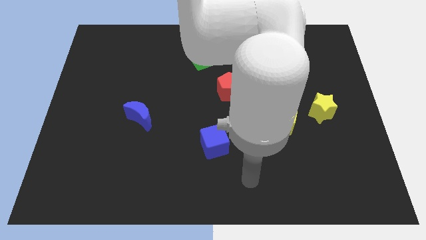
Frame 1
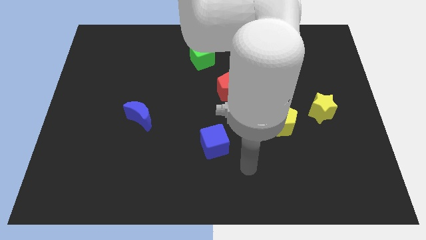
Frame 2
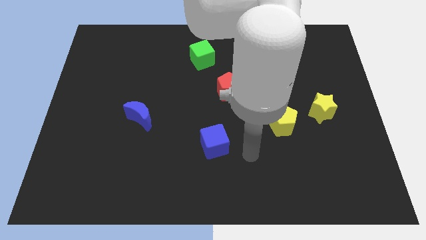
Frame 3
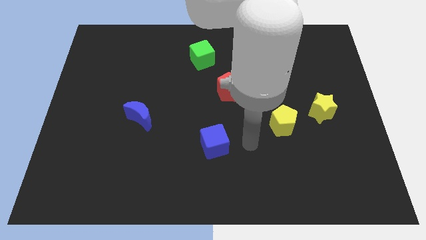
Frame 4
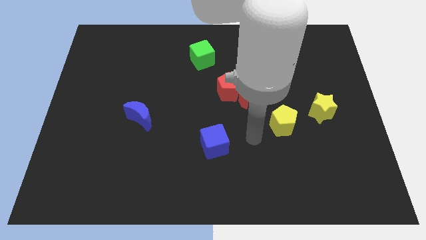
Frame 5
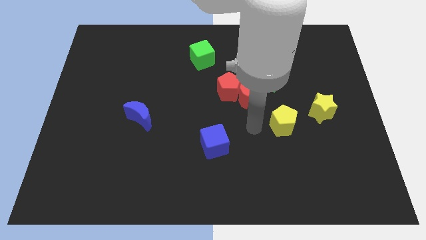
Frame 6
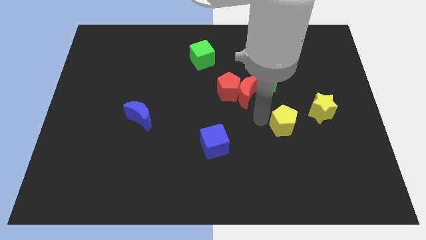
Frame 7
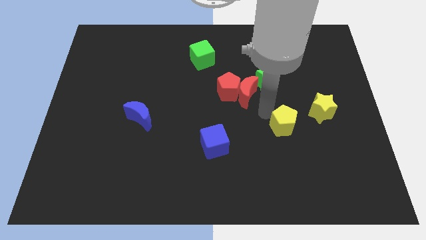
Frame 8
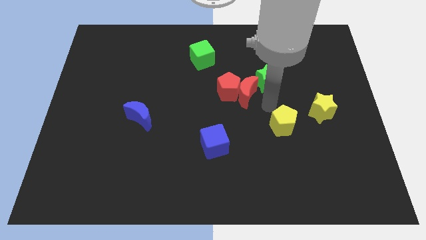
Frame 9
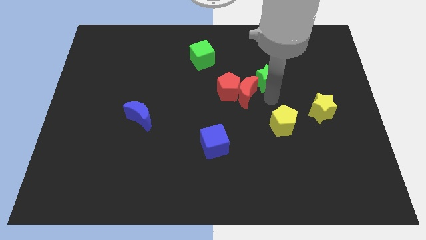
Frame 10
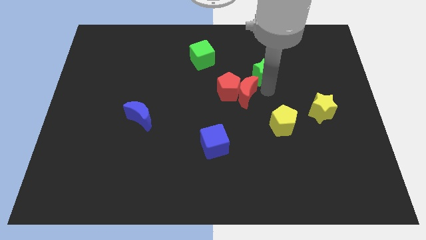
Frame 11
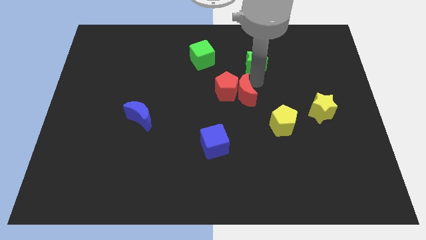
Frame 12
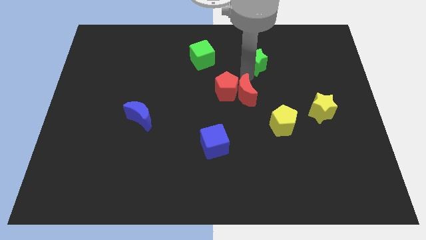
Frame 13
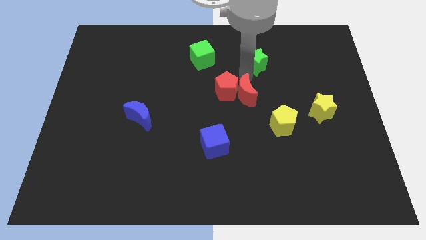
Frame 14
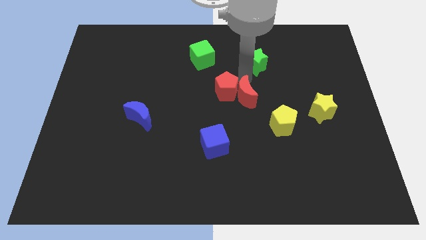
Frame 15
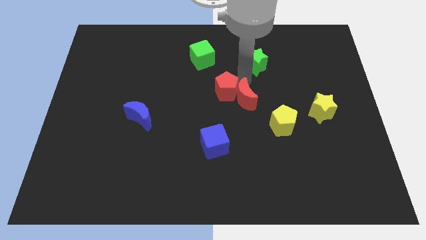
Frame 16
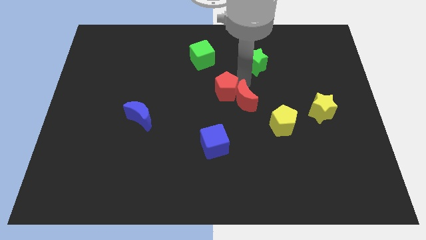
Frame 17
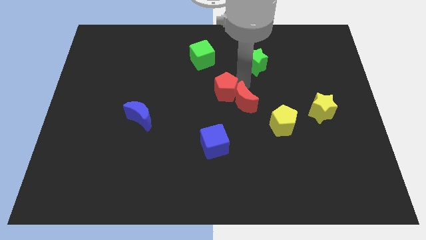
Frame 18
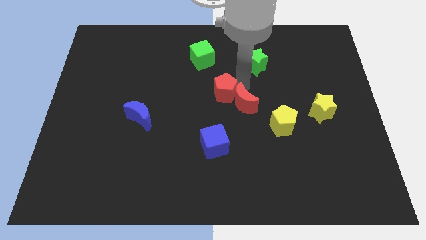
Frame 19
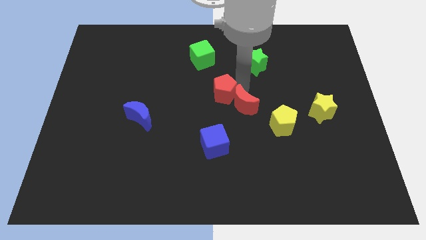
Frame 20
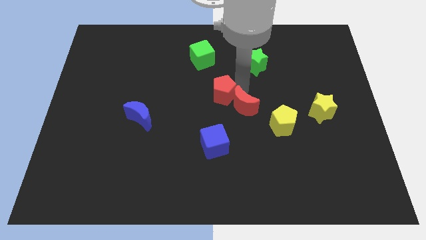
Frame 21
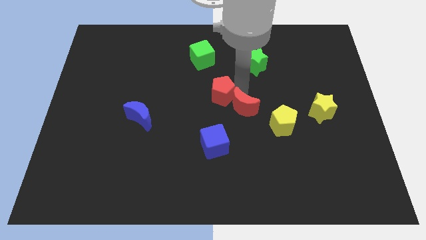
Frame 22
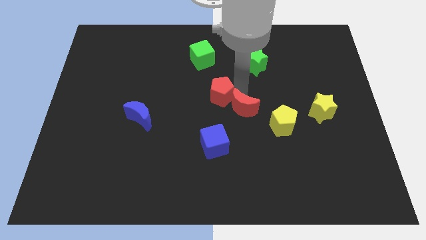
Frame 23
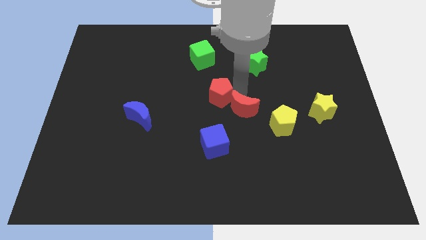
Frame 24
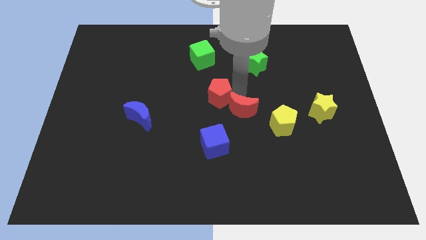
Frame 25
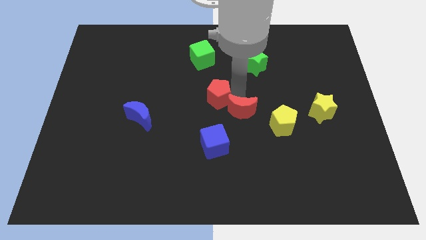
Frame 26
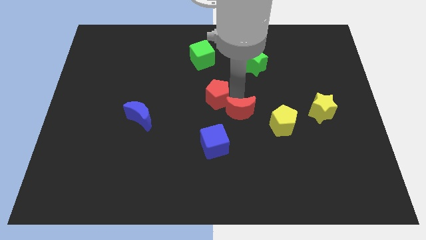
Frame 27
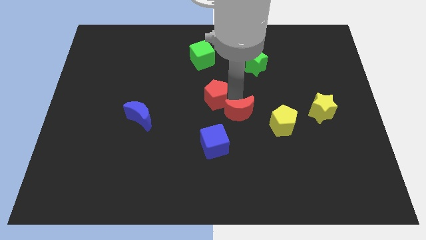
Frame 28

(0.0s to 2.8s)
separate the red moon from the red pentagon and green star

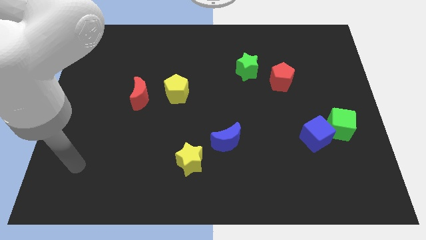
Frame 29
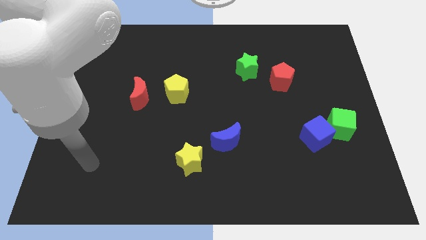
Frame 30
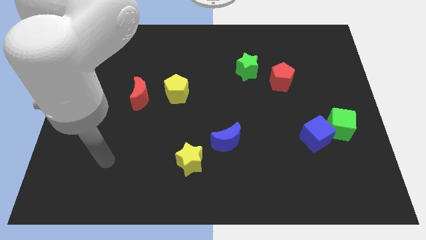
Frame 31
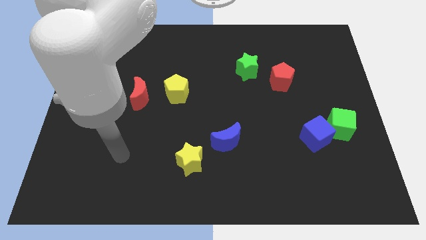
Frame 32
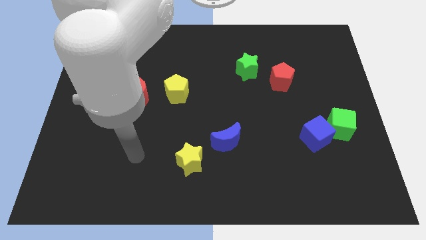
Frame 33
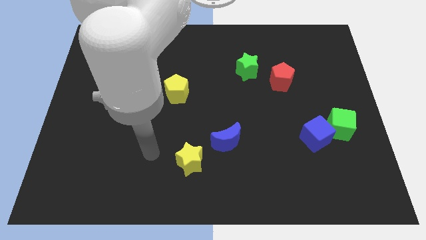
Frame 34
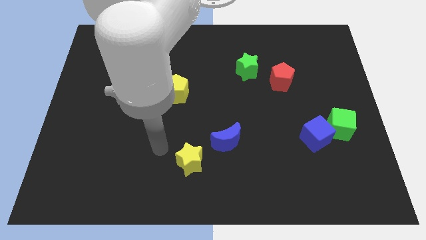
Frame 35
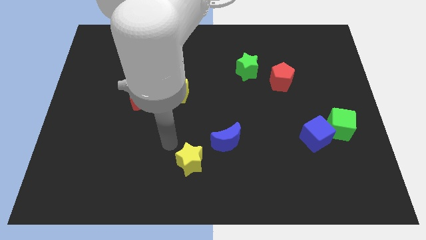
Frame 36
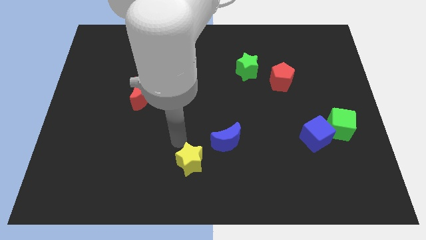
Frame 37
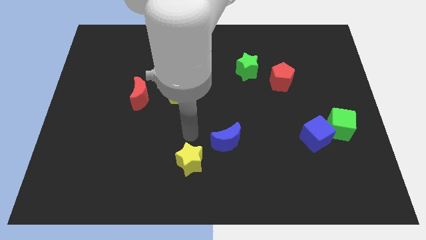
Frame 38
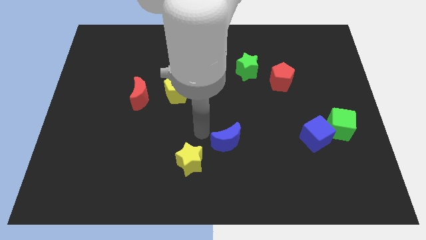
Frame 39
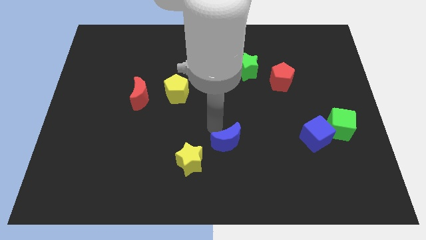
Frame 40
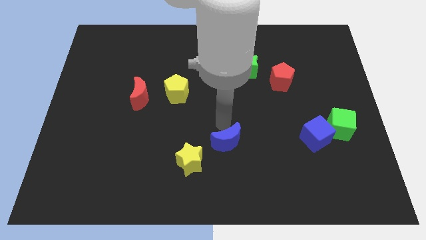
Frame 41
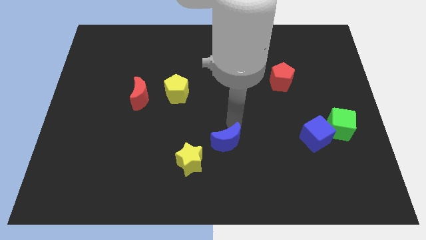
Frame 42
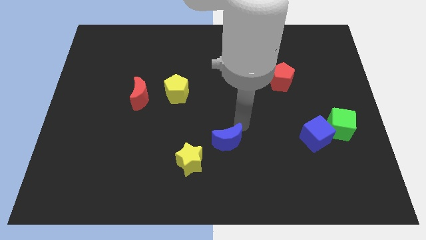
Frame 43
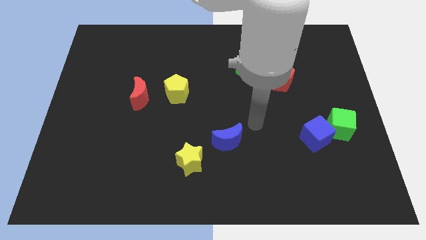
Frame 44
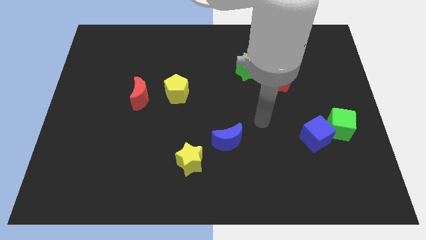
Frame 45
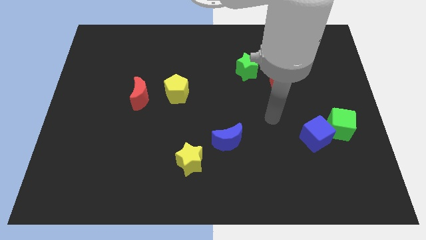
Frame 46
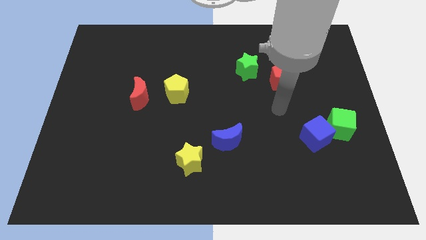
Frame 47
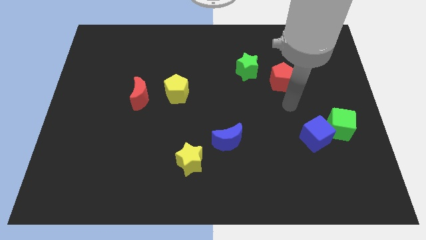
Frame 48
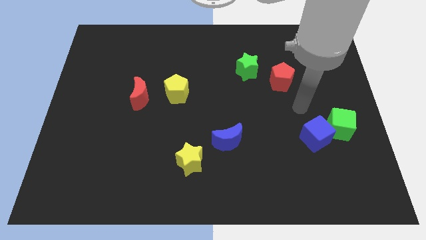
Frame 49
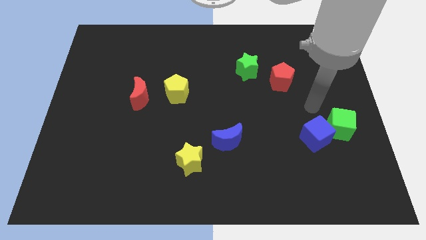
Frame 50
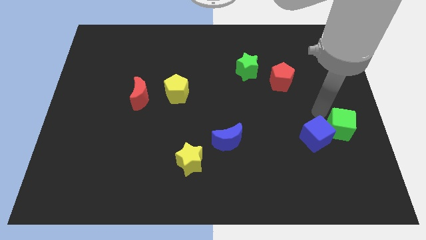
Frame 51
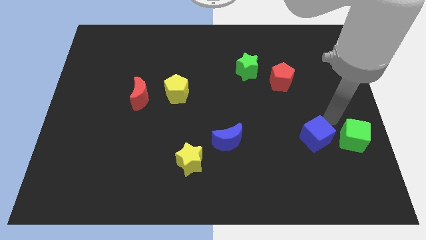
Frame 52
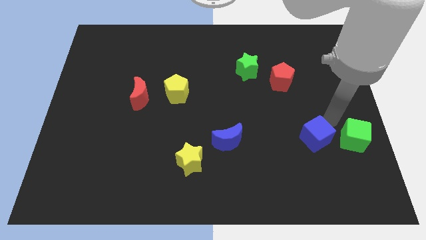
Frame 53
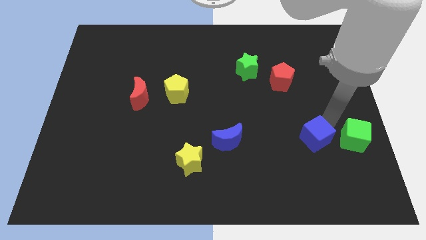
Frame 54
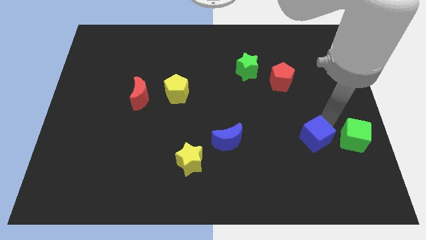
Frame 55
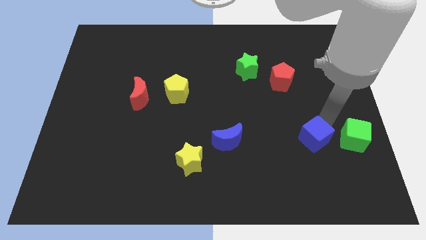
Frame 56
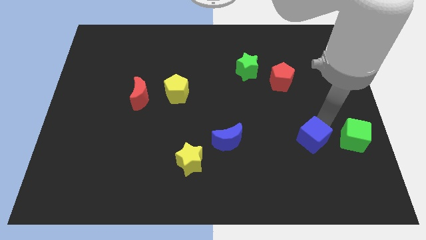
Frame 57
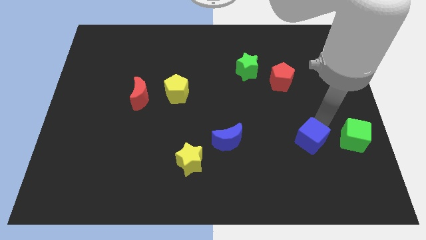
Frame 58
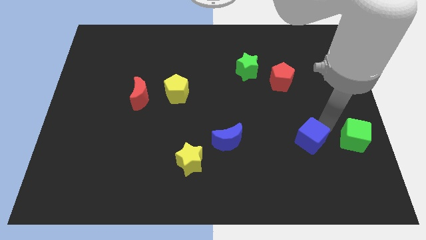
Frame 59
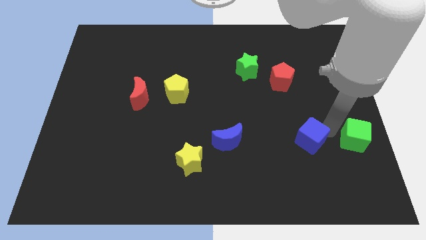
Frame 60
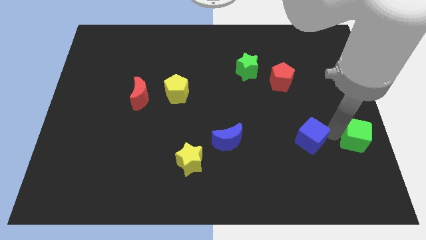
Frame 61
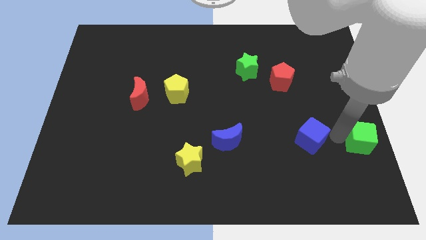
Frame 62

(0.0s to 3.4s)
move the blue cube away from the green cube

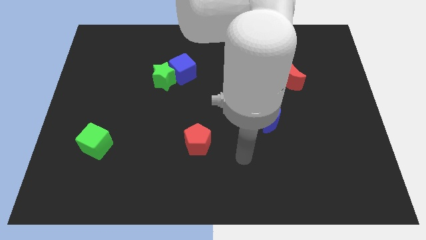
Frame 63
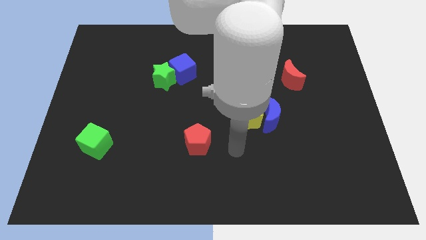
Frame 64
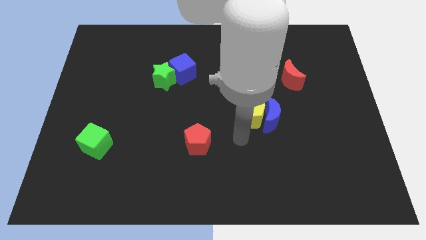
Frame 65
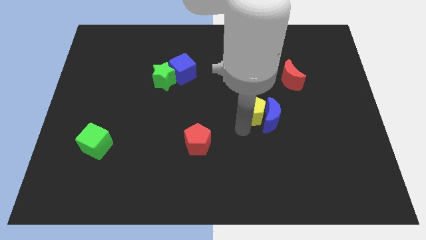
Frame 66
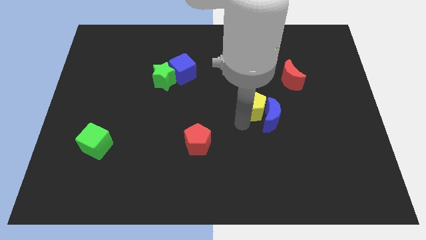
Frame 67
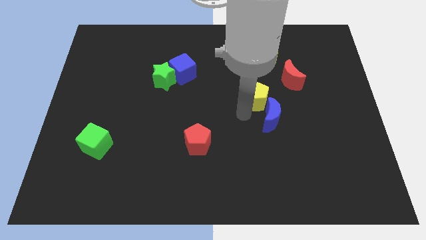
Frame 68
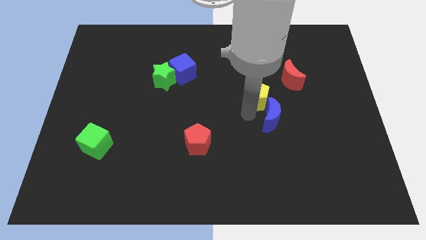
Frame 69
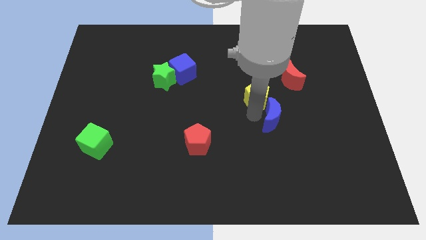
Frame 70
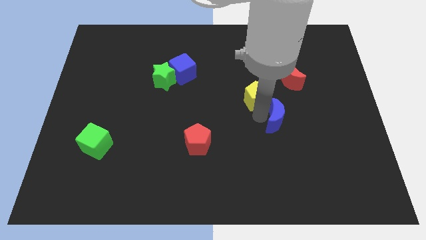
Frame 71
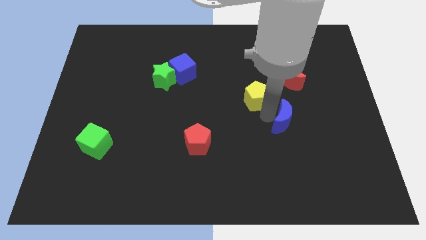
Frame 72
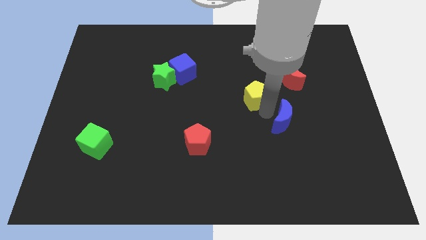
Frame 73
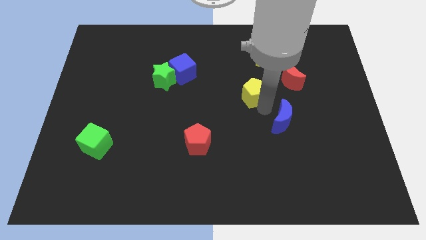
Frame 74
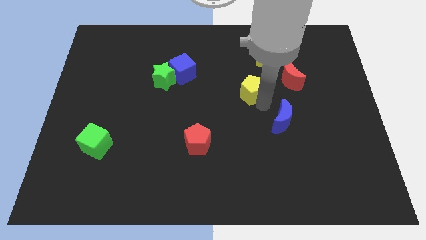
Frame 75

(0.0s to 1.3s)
move the blue moon away from the yellow pentagon

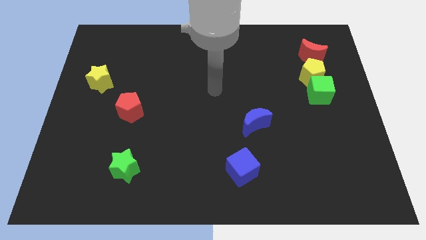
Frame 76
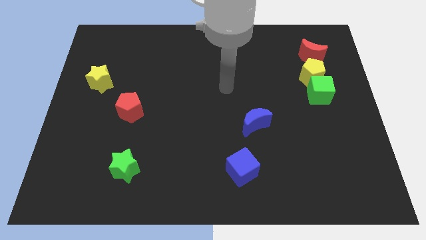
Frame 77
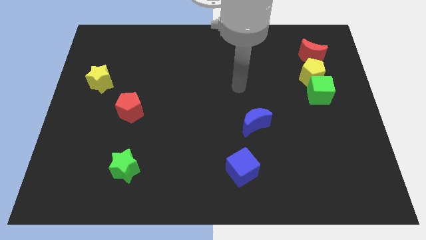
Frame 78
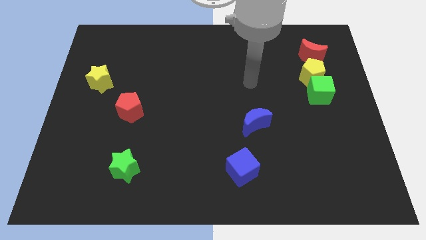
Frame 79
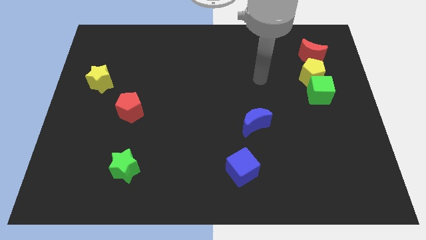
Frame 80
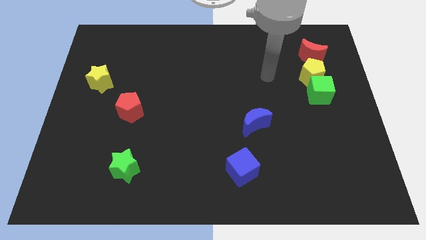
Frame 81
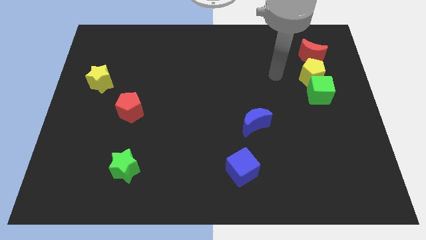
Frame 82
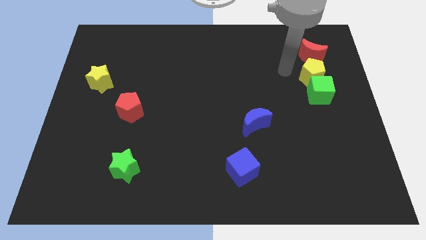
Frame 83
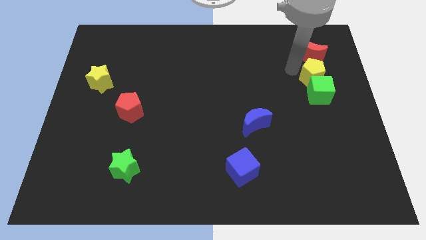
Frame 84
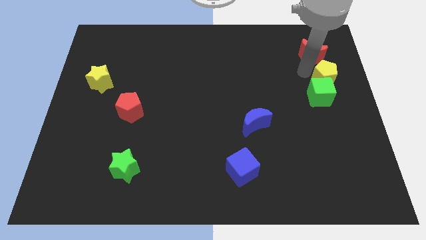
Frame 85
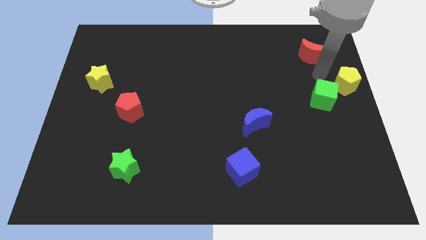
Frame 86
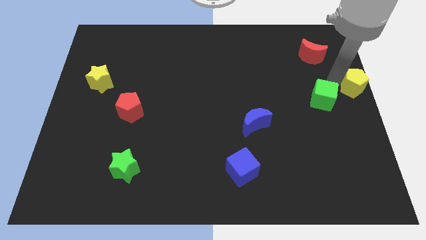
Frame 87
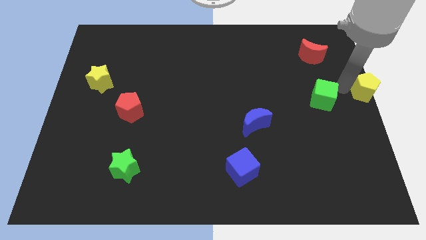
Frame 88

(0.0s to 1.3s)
move the green cube away from the yellow pentagon

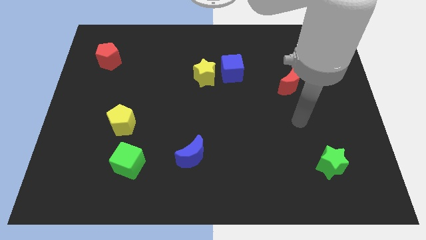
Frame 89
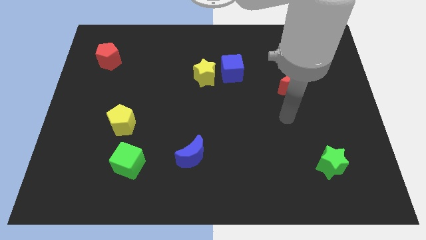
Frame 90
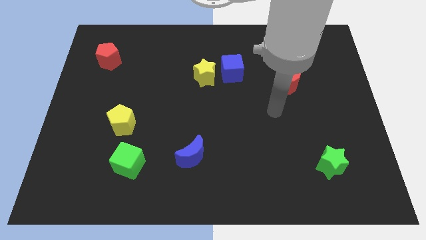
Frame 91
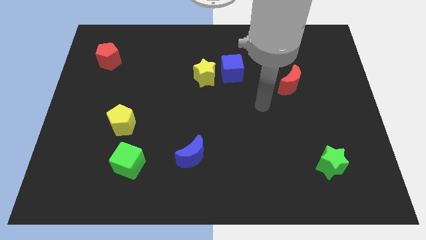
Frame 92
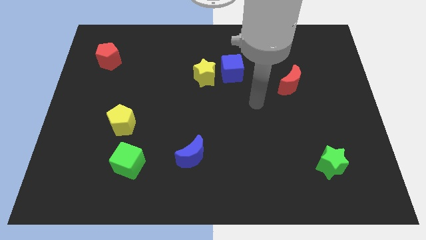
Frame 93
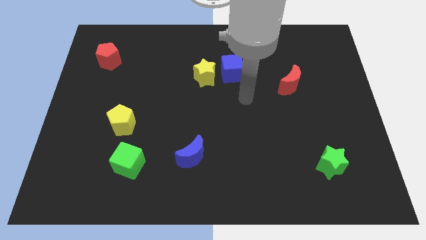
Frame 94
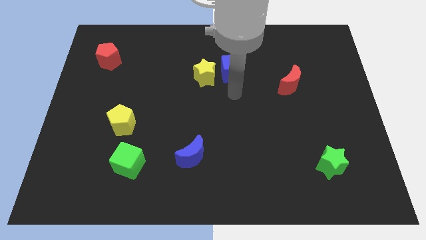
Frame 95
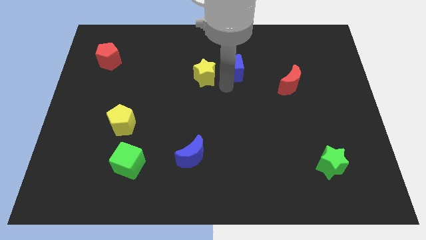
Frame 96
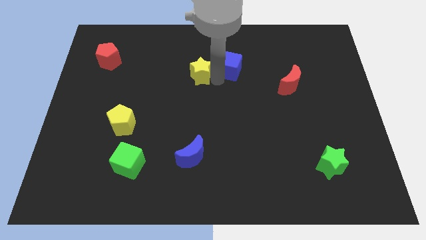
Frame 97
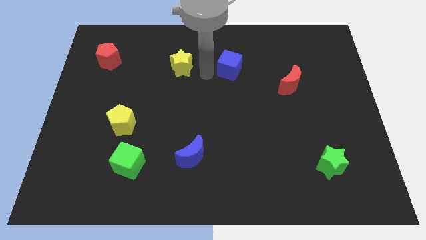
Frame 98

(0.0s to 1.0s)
pull the blue cube apart from the yellow star
